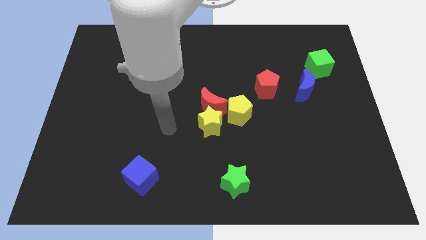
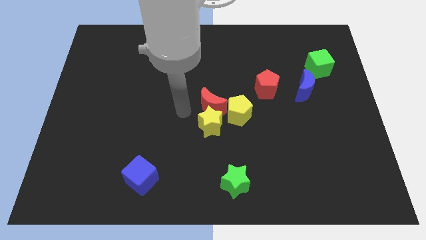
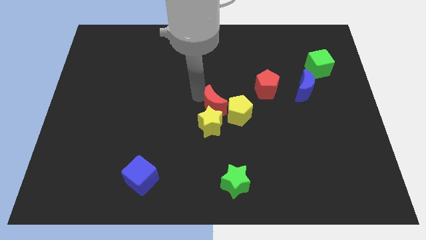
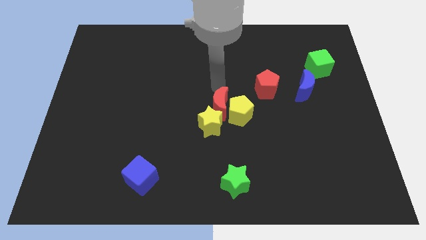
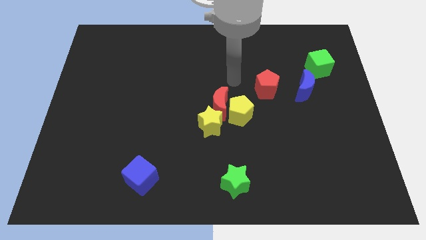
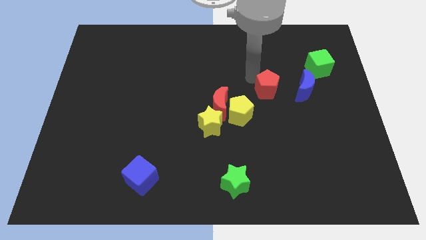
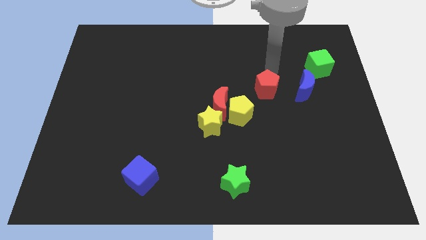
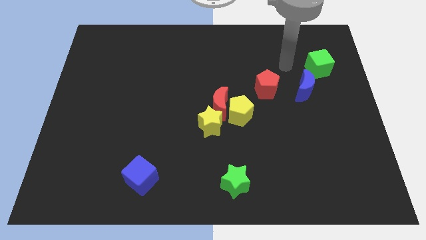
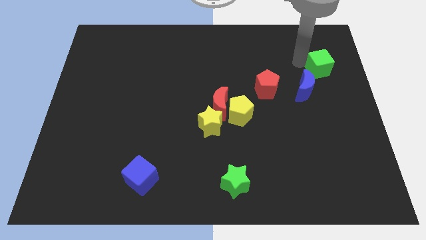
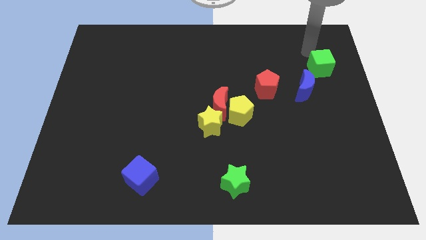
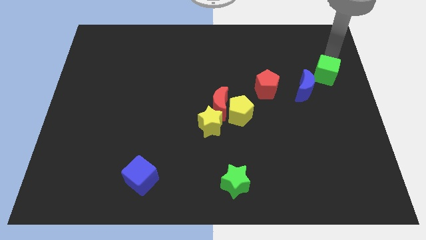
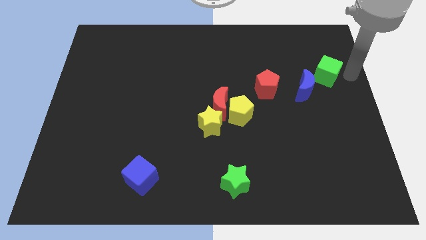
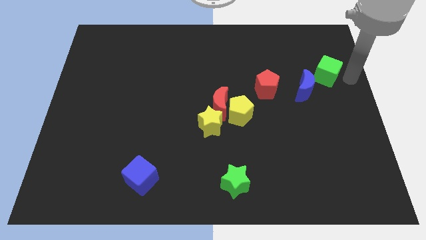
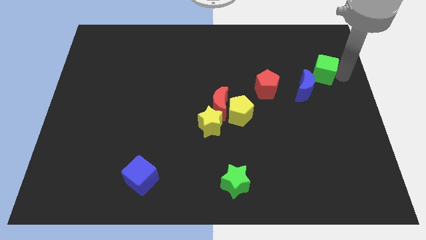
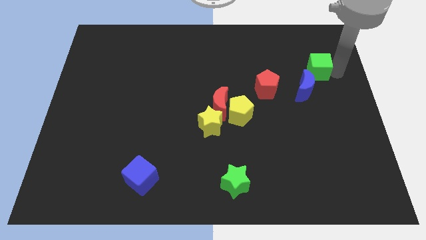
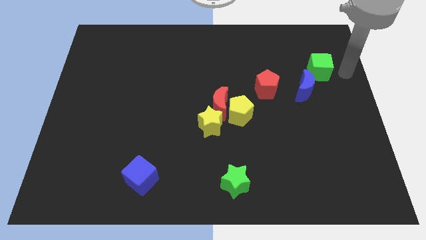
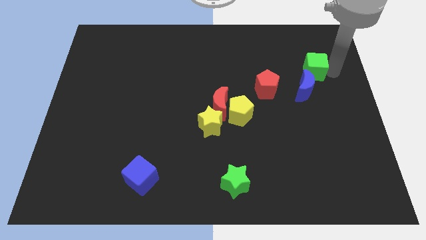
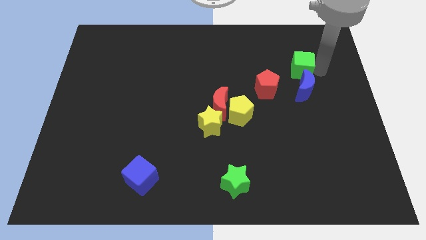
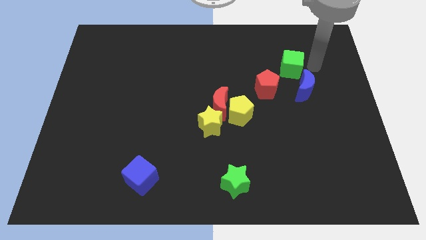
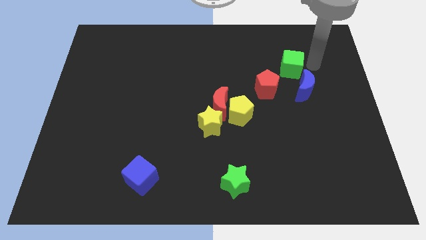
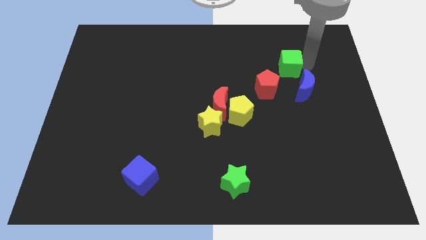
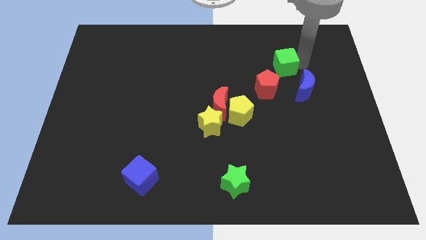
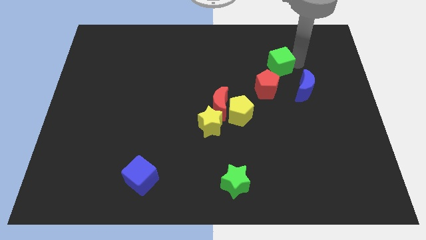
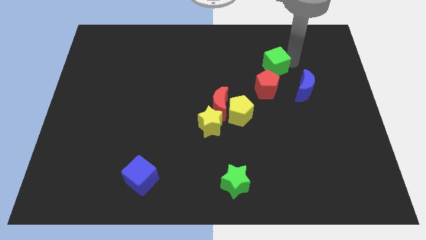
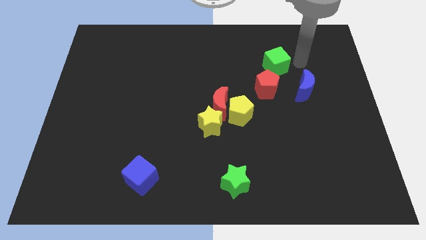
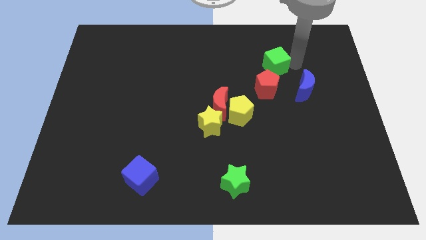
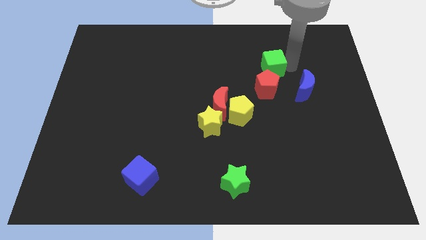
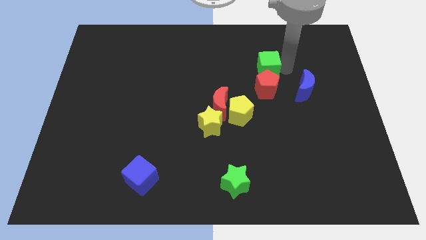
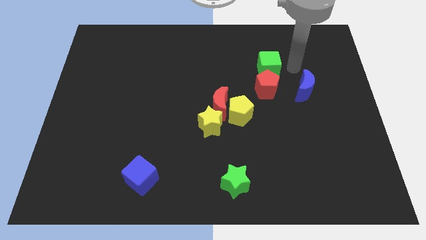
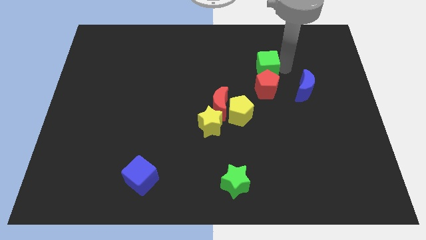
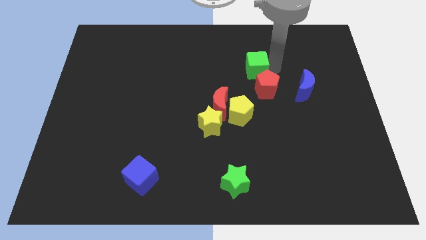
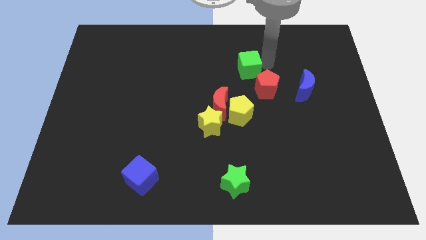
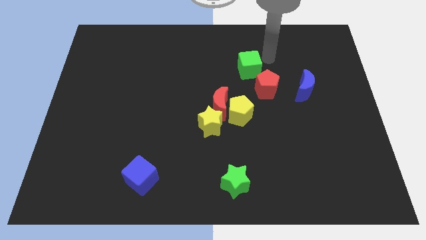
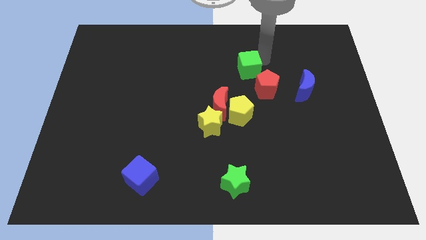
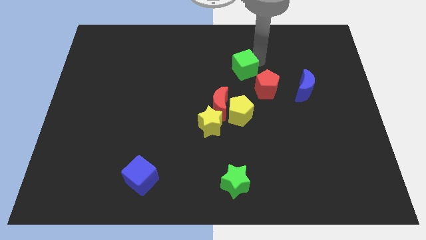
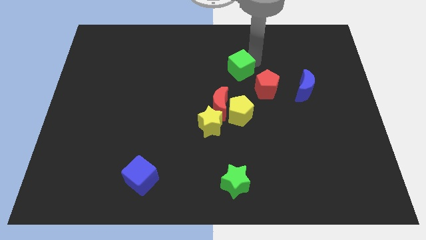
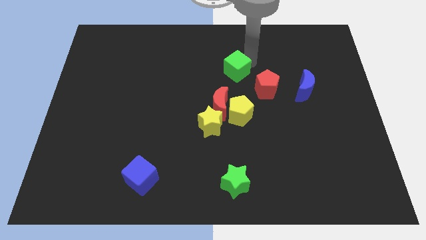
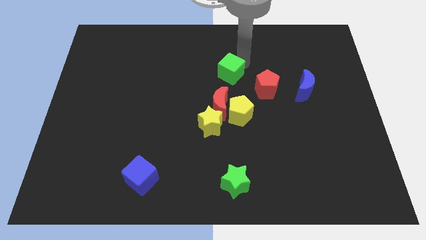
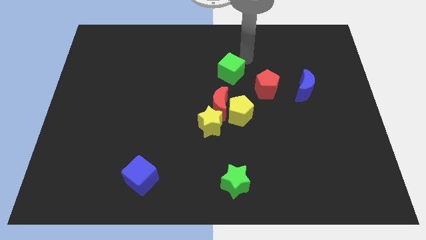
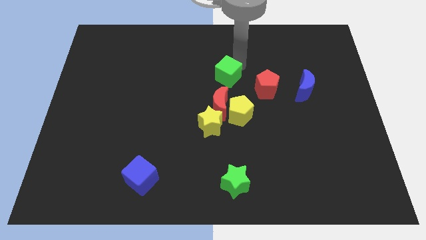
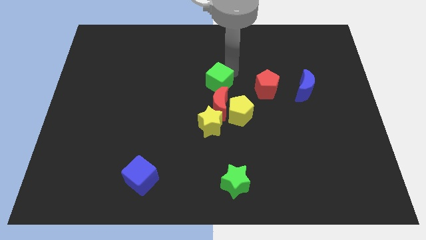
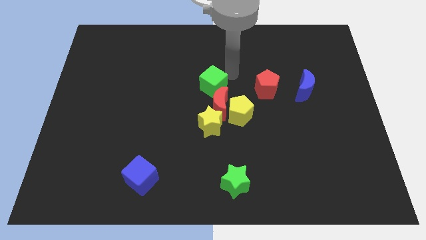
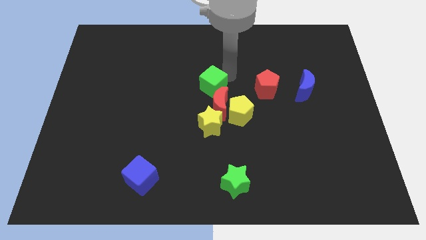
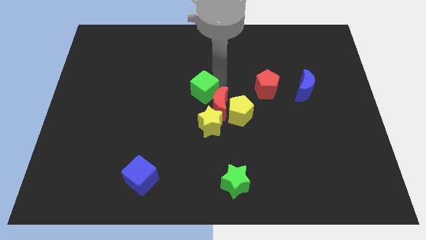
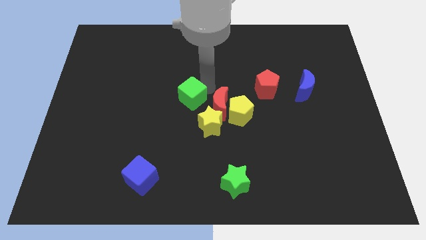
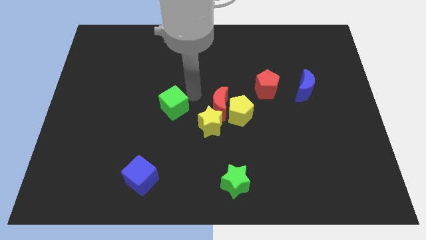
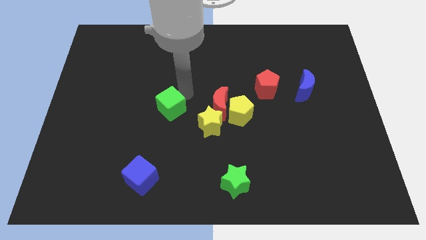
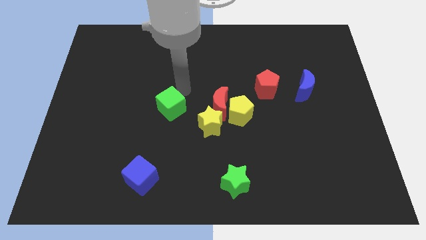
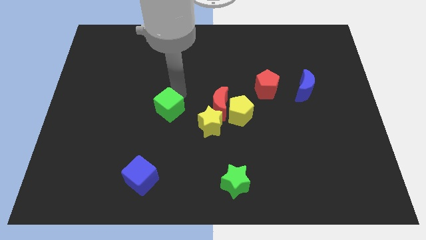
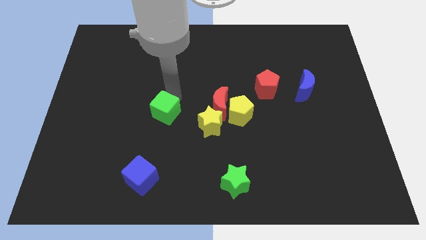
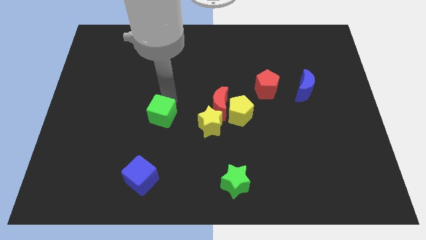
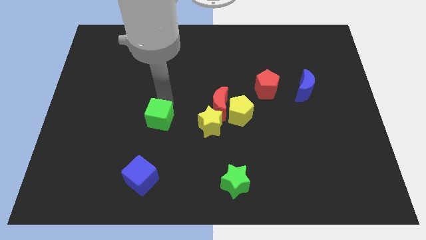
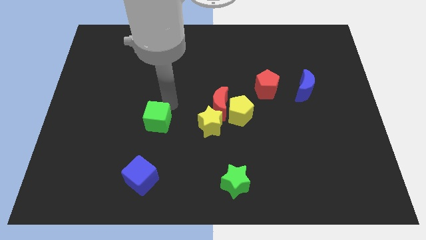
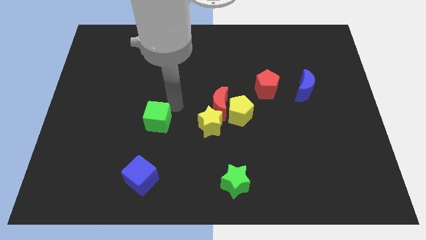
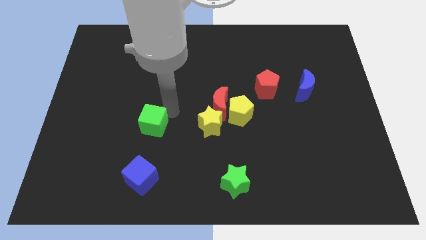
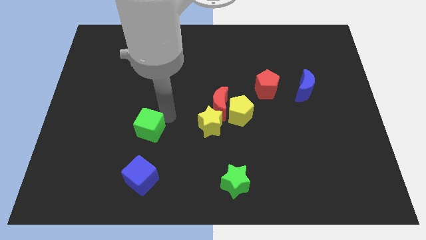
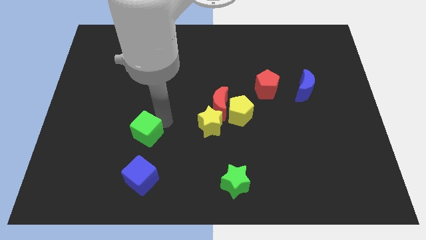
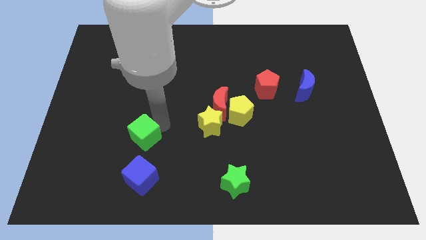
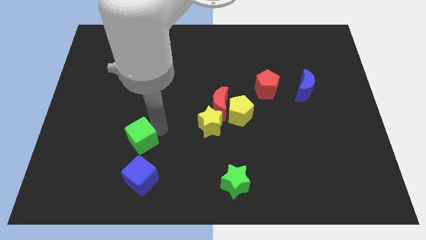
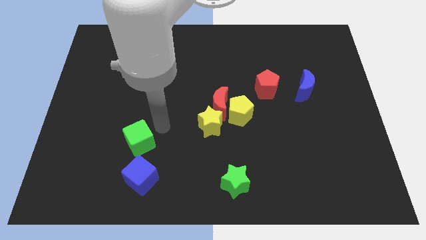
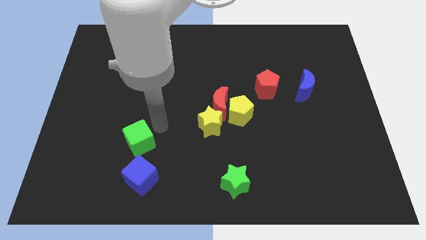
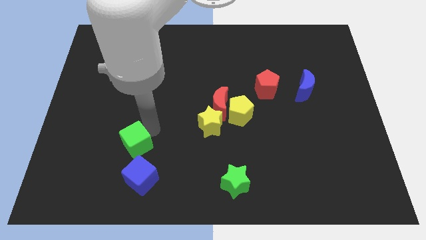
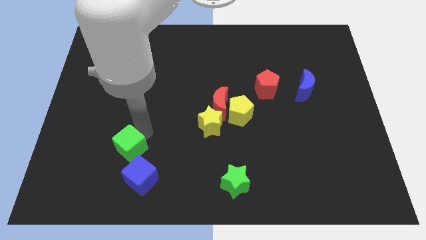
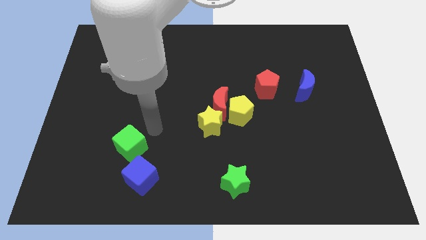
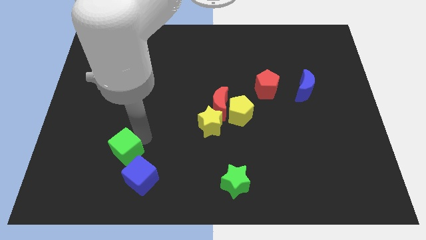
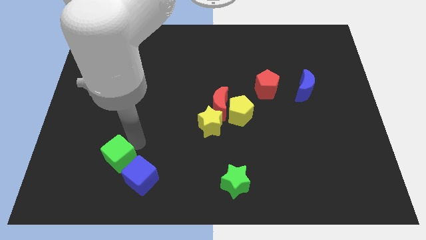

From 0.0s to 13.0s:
push the green cube left of the blue cube

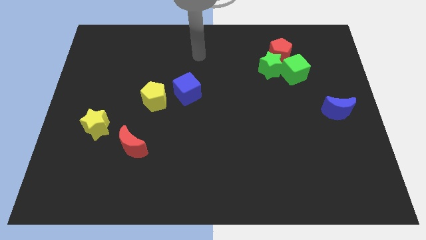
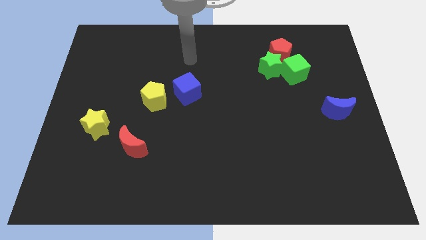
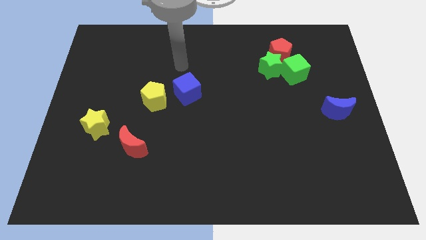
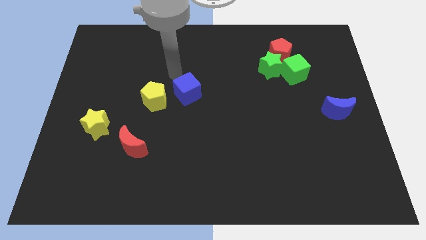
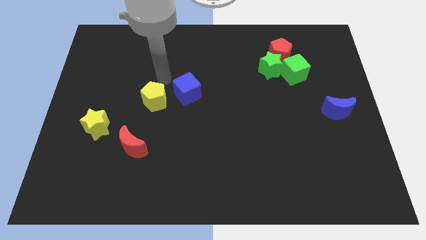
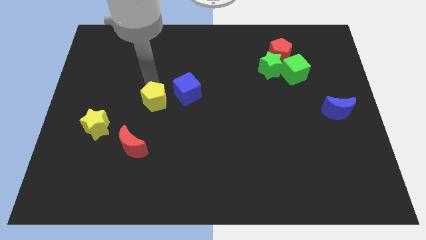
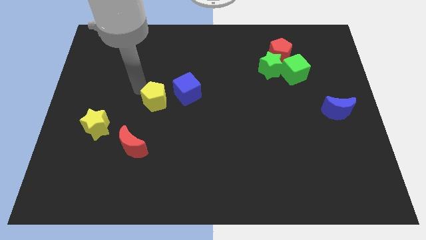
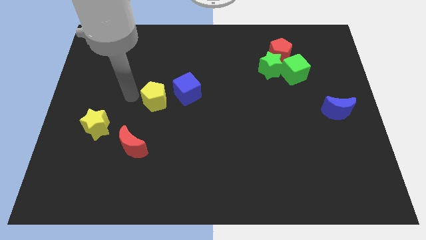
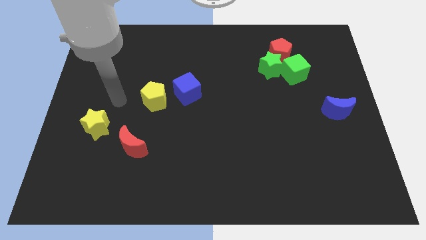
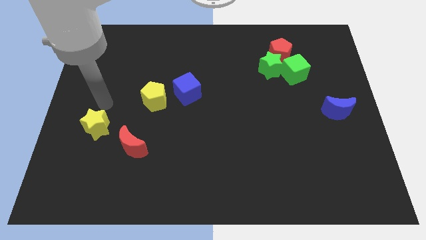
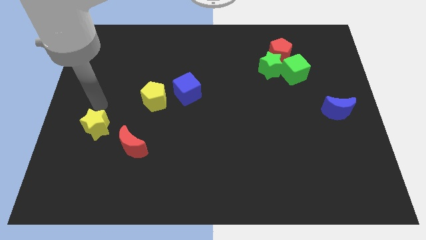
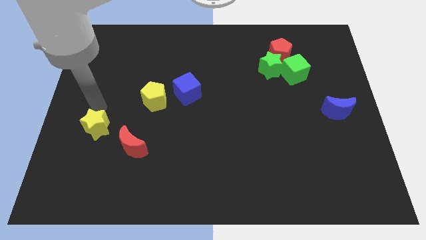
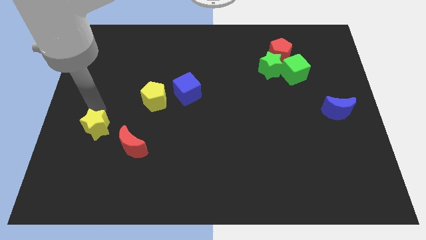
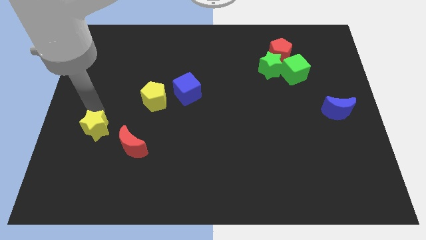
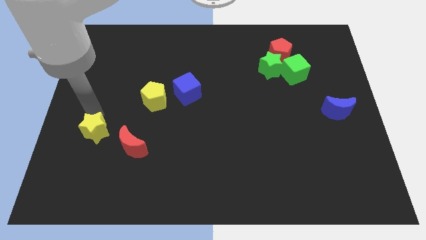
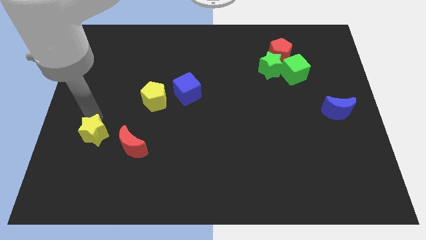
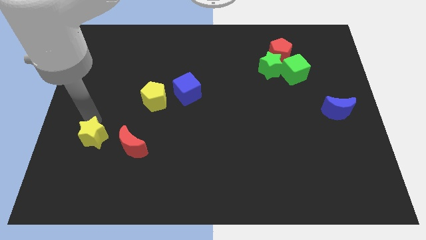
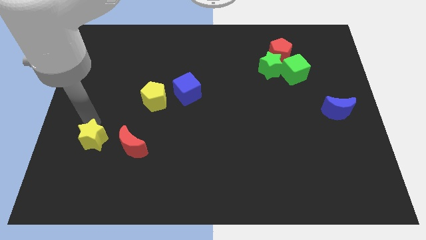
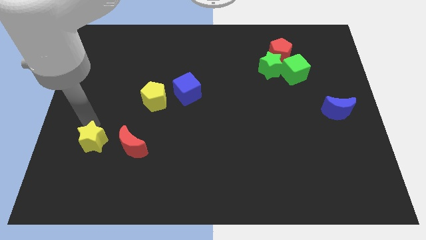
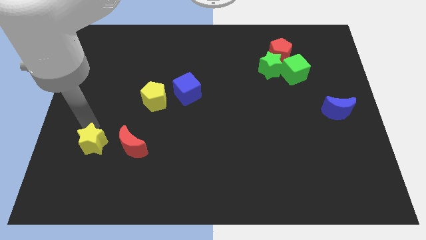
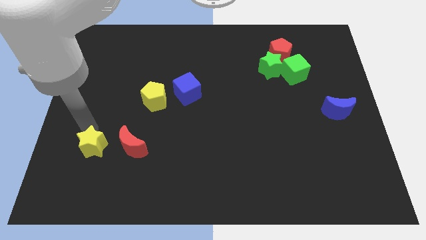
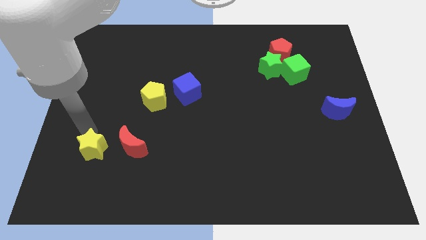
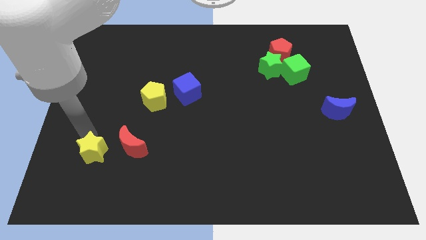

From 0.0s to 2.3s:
slide the yellow star diagonally down and to the left of the red moon
